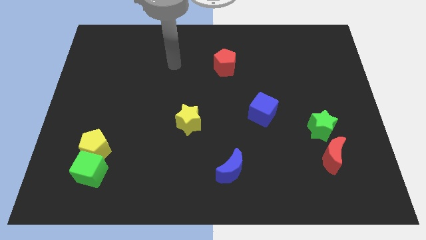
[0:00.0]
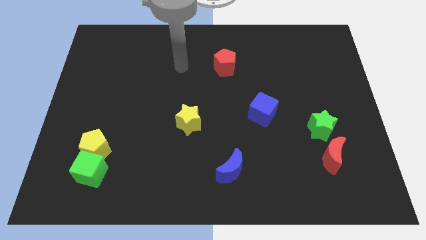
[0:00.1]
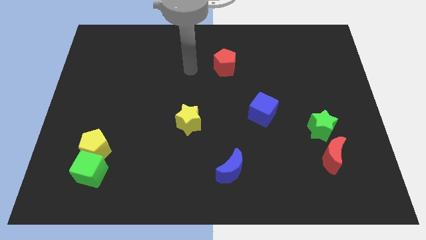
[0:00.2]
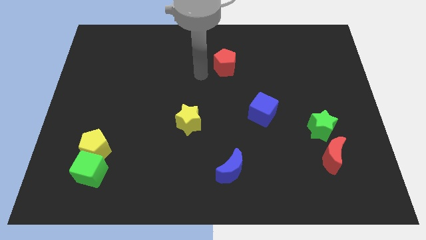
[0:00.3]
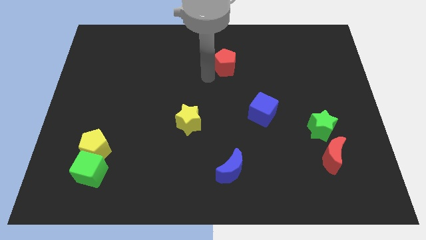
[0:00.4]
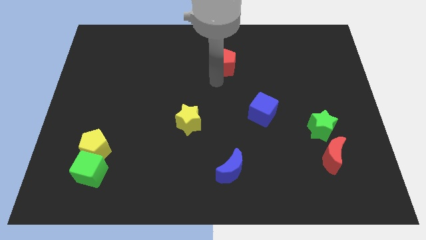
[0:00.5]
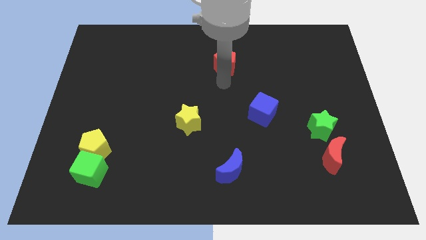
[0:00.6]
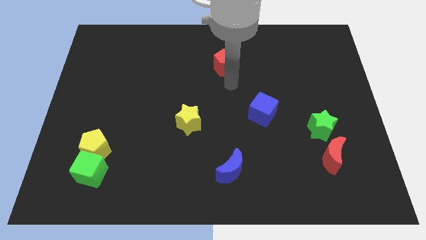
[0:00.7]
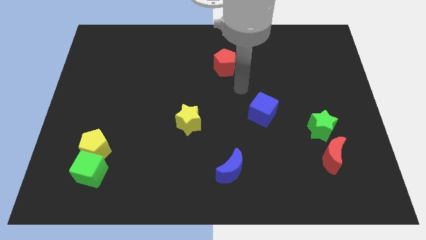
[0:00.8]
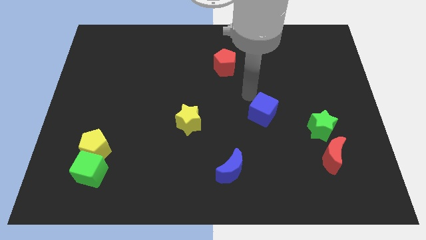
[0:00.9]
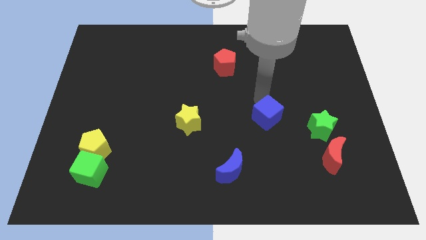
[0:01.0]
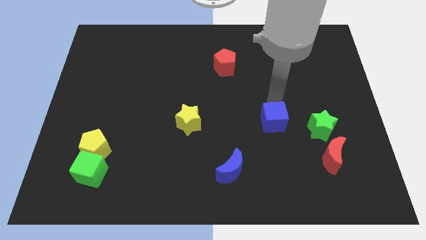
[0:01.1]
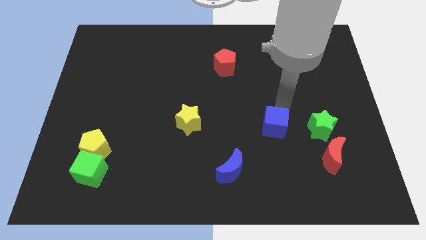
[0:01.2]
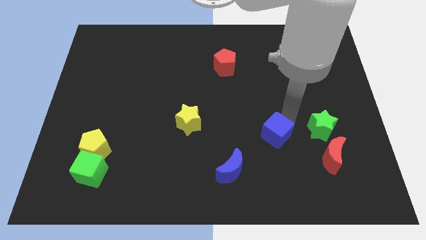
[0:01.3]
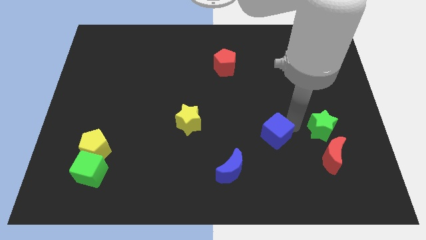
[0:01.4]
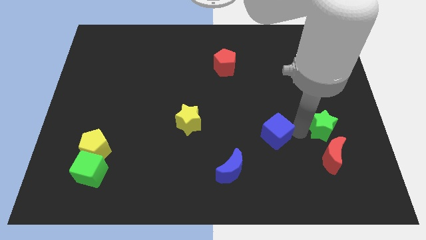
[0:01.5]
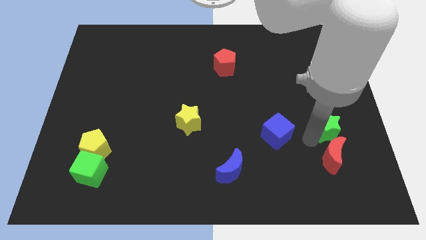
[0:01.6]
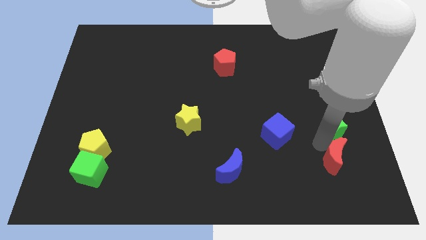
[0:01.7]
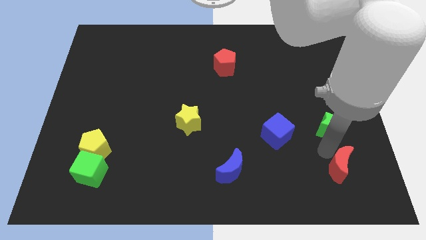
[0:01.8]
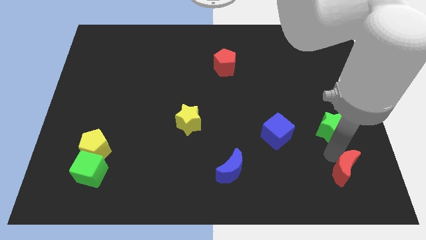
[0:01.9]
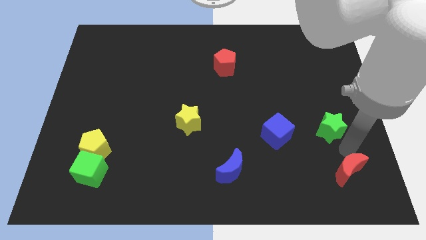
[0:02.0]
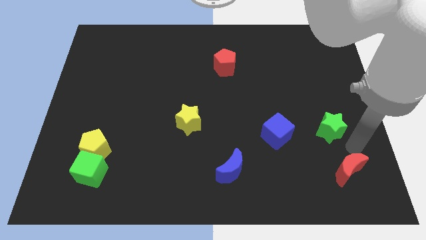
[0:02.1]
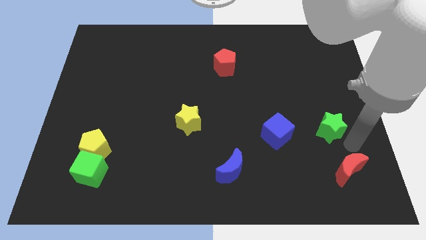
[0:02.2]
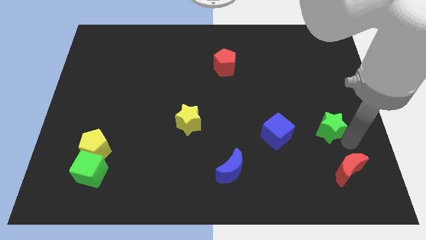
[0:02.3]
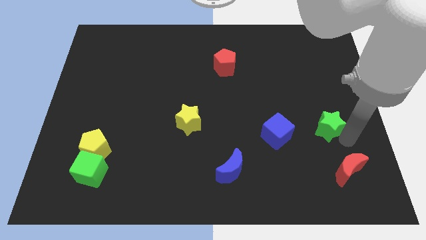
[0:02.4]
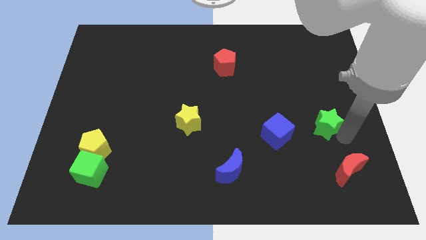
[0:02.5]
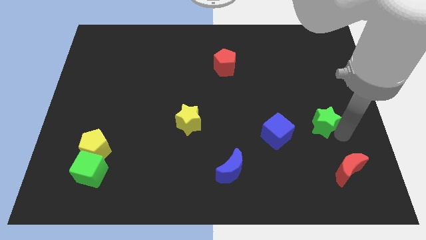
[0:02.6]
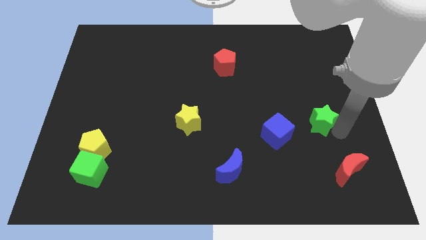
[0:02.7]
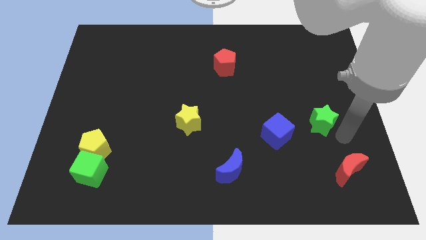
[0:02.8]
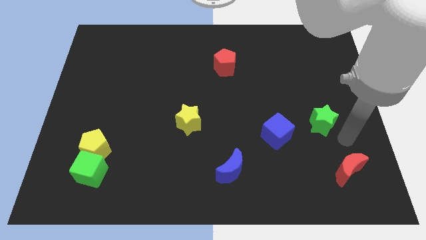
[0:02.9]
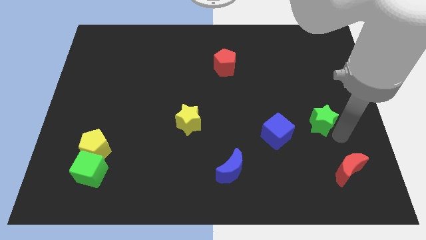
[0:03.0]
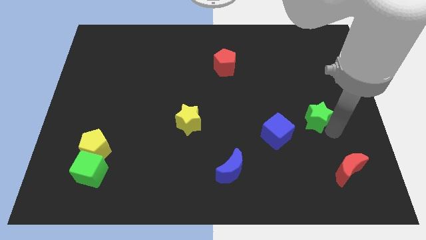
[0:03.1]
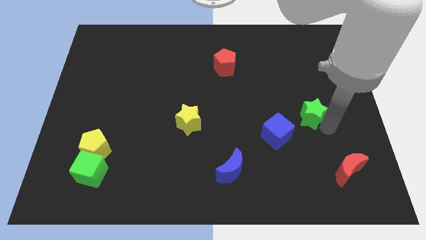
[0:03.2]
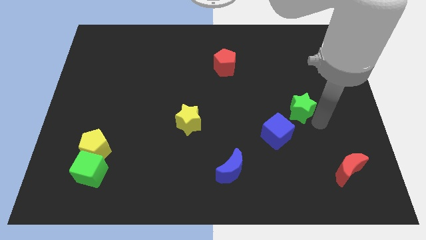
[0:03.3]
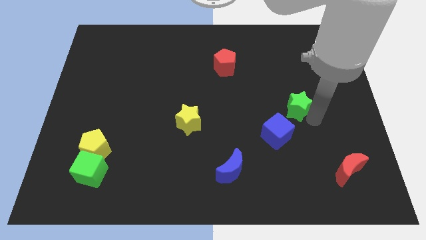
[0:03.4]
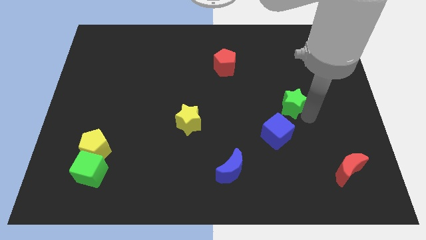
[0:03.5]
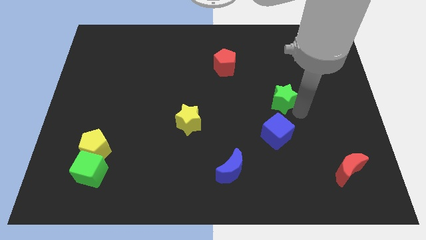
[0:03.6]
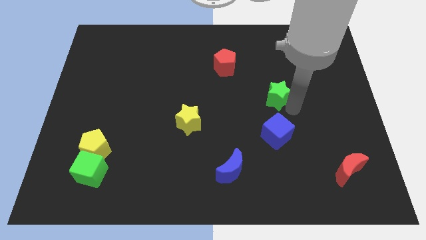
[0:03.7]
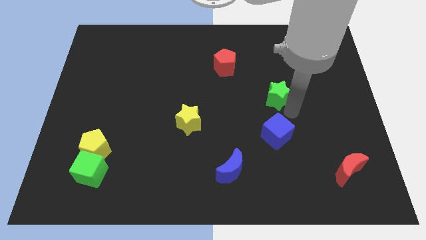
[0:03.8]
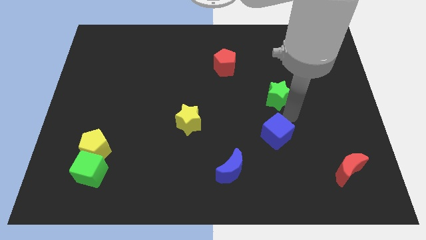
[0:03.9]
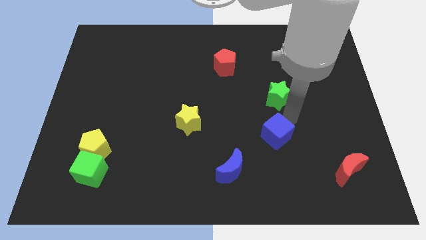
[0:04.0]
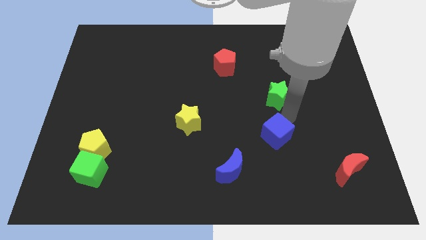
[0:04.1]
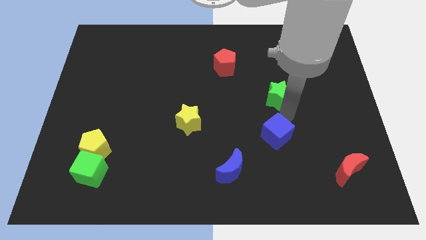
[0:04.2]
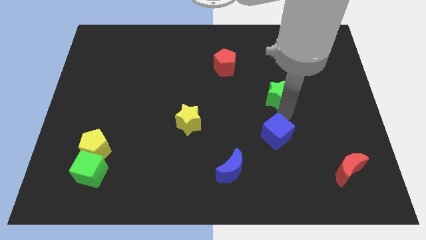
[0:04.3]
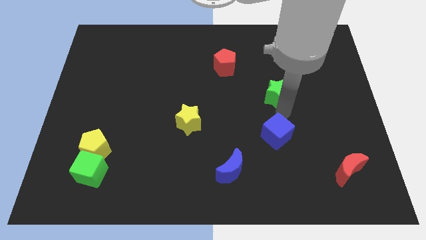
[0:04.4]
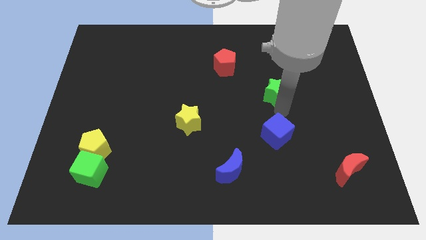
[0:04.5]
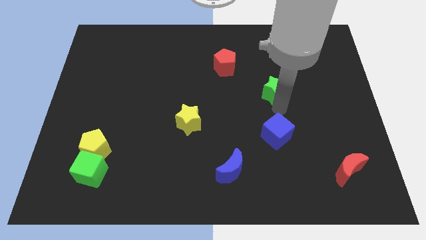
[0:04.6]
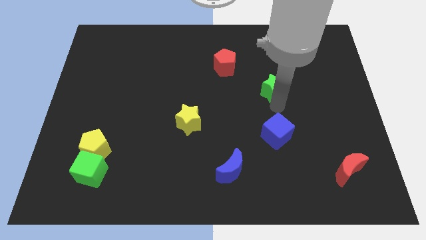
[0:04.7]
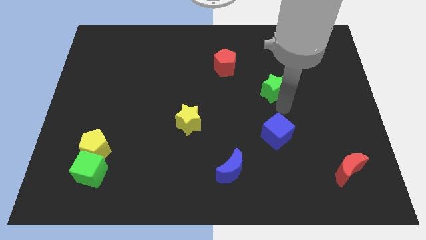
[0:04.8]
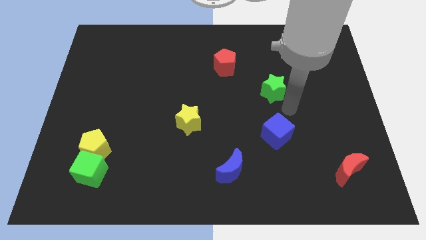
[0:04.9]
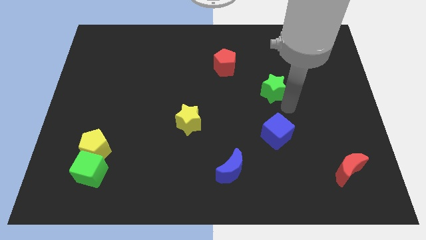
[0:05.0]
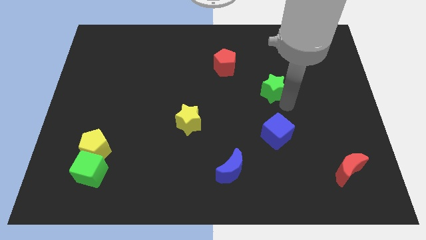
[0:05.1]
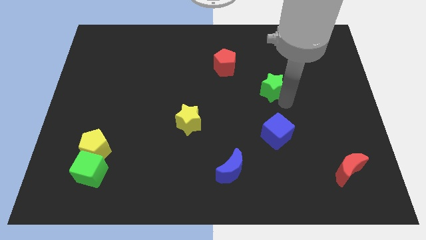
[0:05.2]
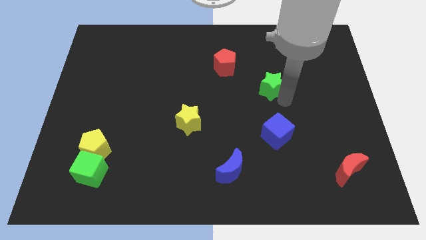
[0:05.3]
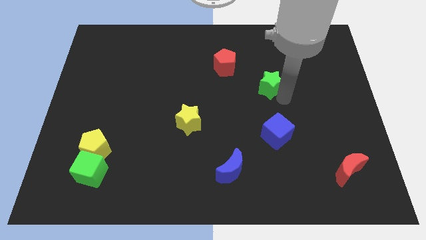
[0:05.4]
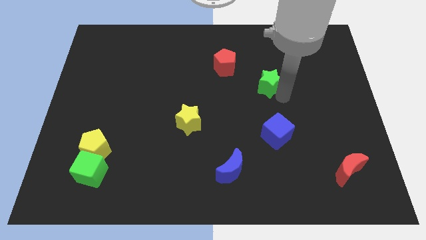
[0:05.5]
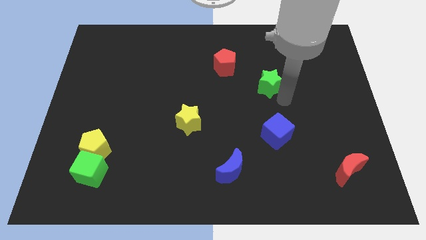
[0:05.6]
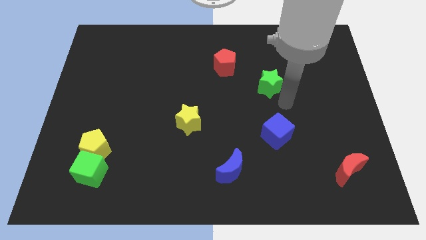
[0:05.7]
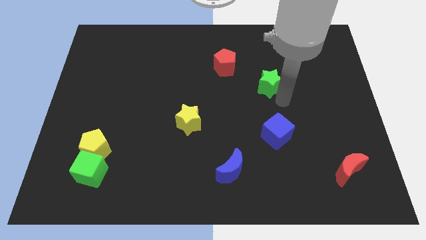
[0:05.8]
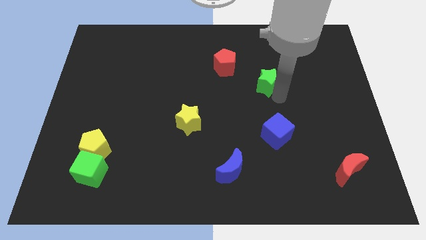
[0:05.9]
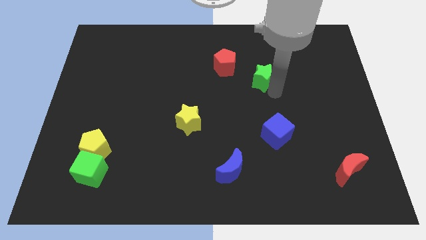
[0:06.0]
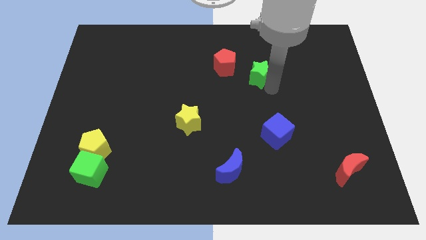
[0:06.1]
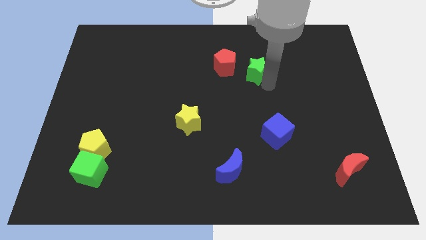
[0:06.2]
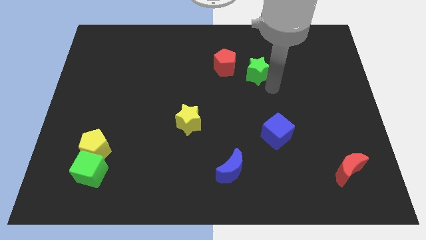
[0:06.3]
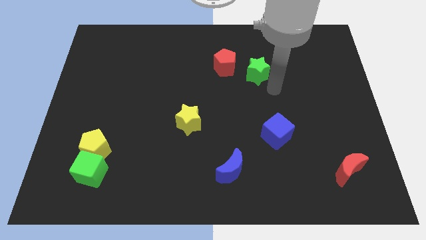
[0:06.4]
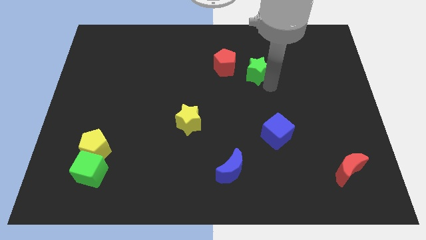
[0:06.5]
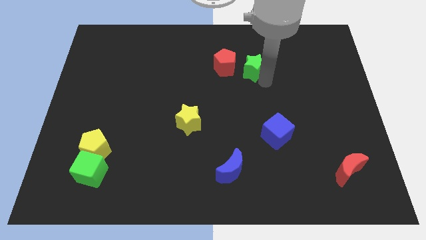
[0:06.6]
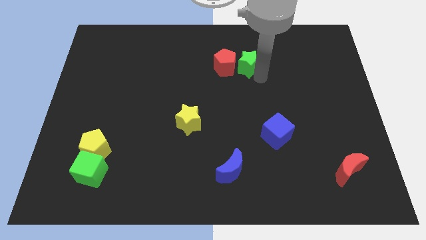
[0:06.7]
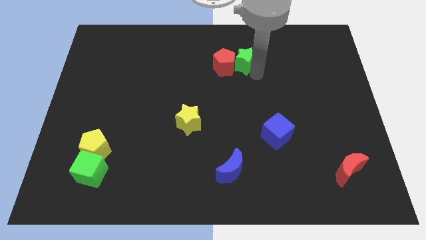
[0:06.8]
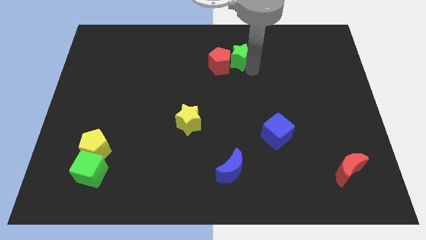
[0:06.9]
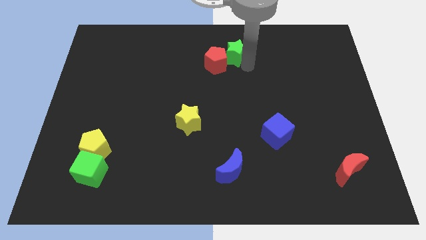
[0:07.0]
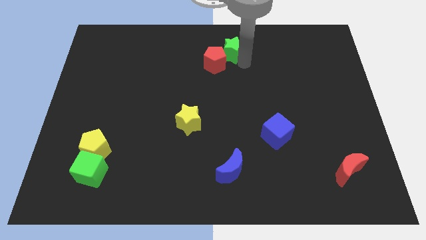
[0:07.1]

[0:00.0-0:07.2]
push the green star to the top

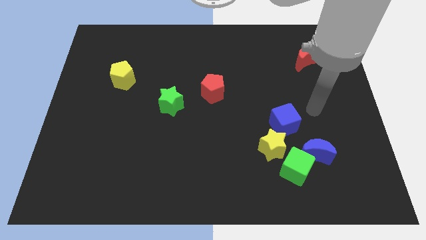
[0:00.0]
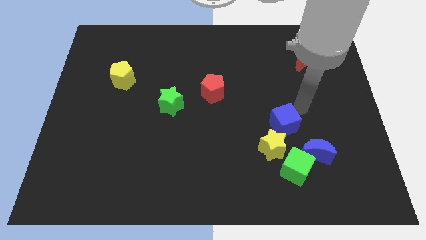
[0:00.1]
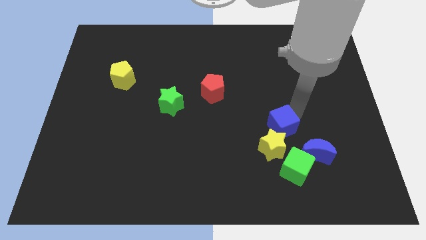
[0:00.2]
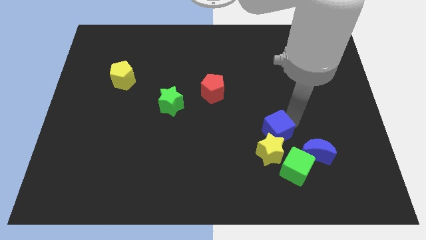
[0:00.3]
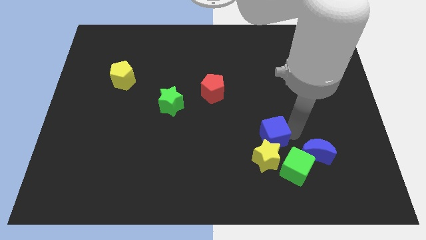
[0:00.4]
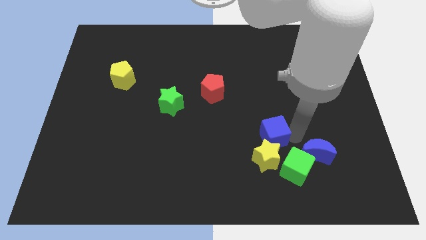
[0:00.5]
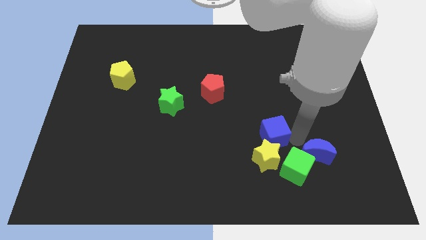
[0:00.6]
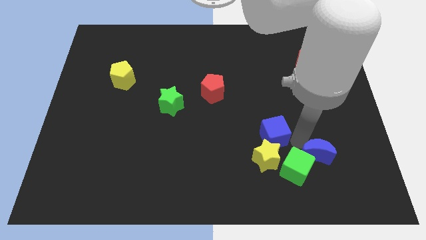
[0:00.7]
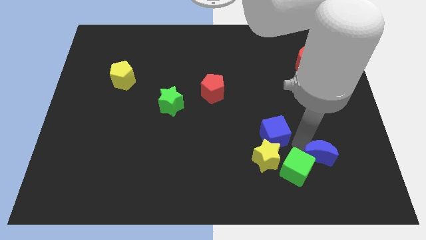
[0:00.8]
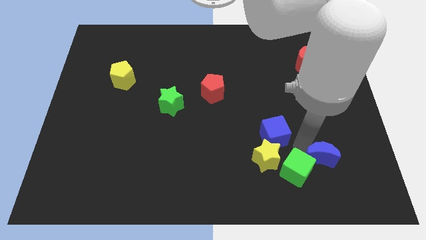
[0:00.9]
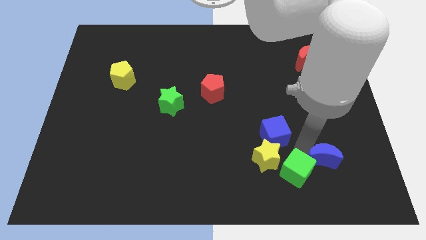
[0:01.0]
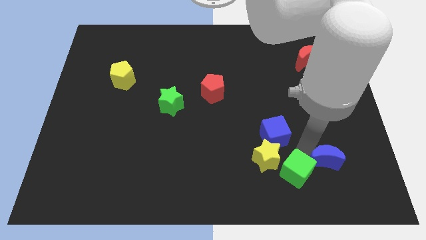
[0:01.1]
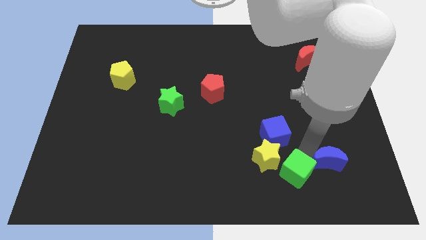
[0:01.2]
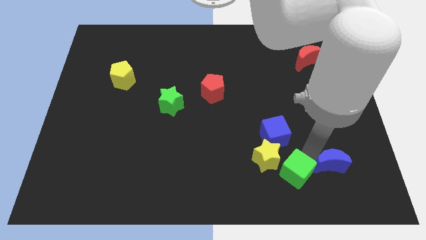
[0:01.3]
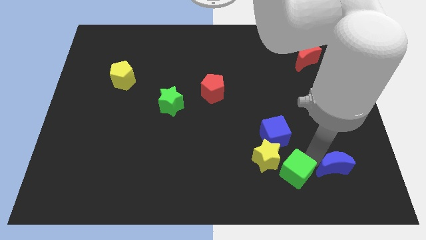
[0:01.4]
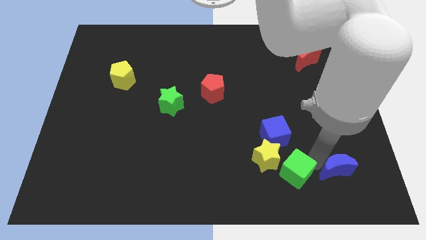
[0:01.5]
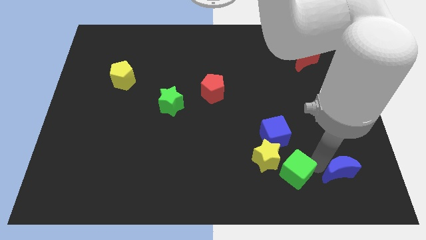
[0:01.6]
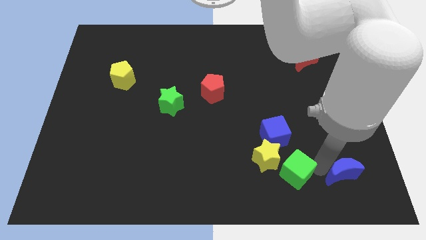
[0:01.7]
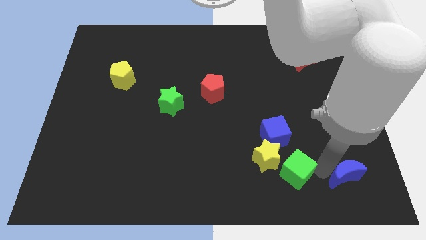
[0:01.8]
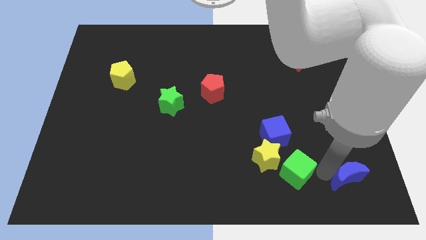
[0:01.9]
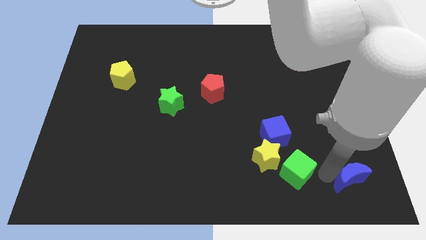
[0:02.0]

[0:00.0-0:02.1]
slide the blue moon to the lower right corner
